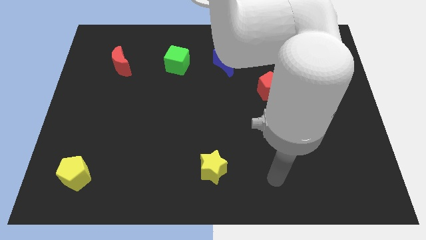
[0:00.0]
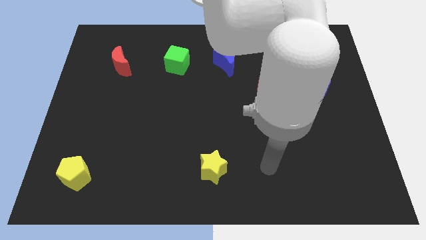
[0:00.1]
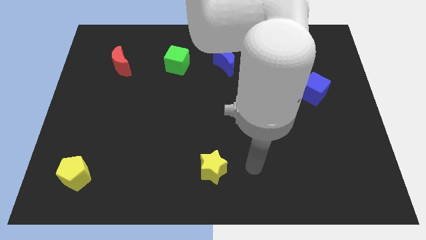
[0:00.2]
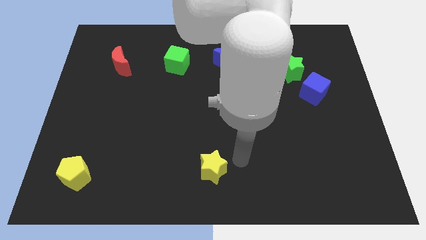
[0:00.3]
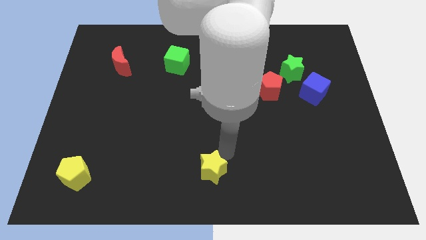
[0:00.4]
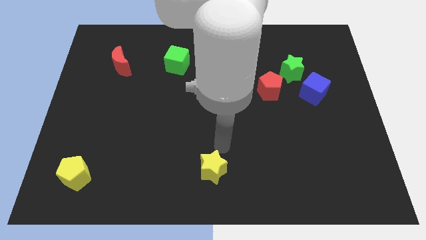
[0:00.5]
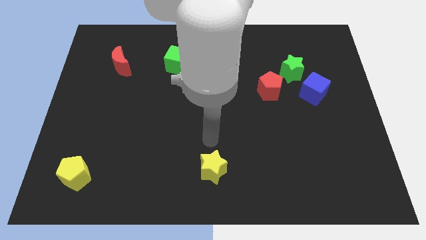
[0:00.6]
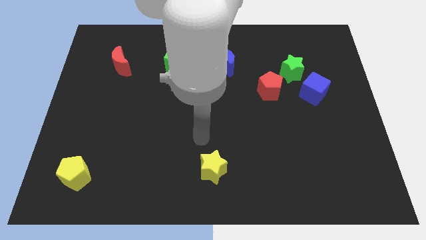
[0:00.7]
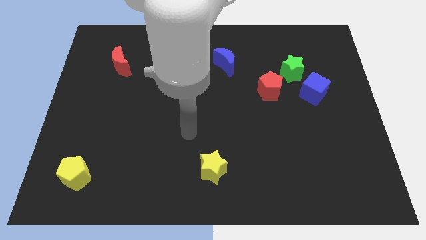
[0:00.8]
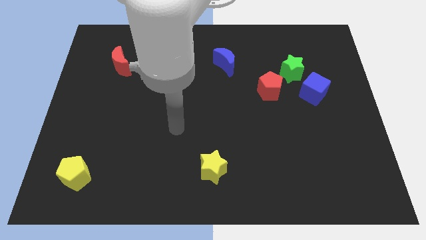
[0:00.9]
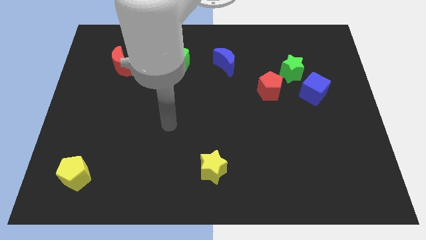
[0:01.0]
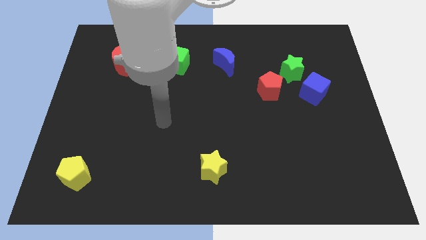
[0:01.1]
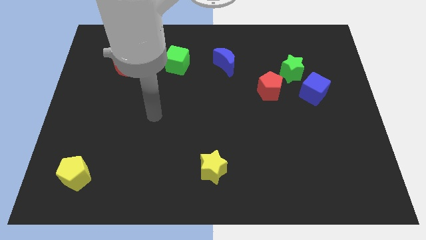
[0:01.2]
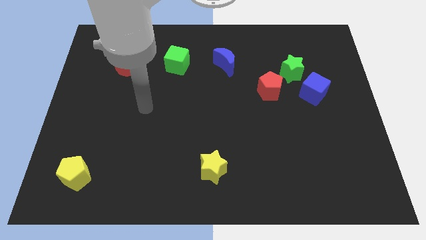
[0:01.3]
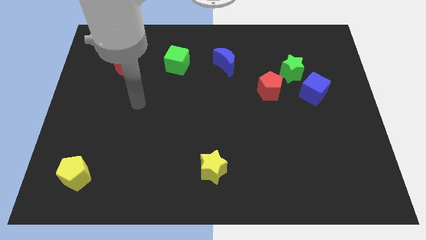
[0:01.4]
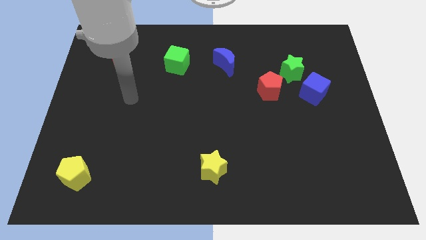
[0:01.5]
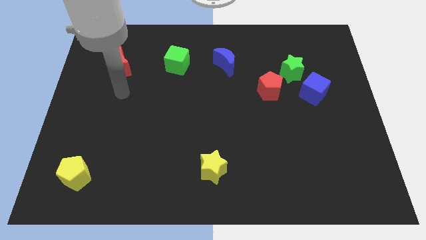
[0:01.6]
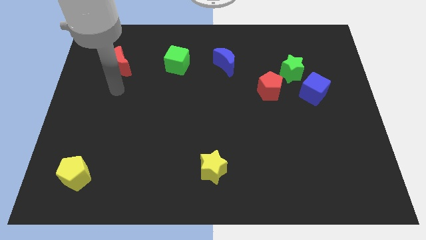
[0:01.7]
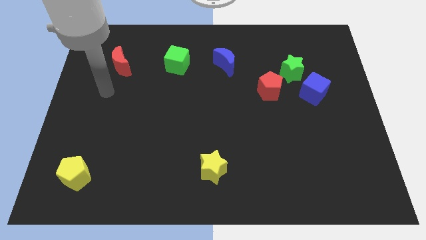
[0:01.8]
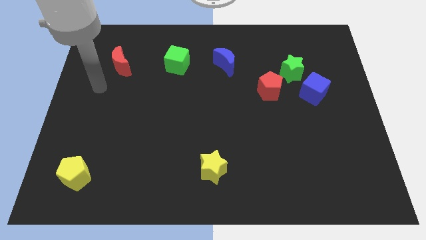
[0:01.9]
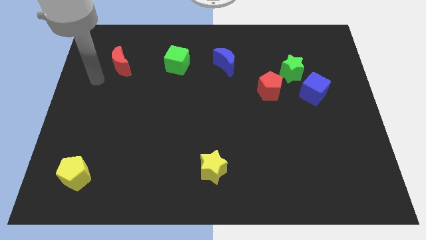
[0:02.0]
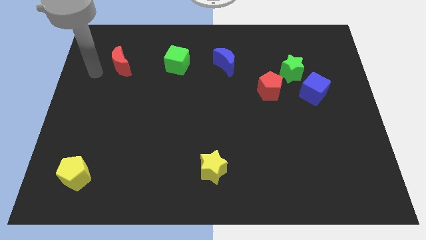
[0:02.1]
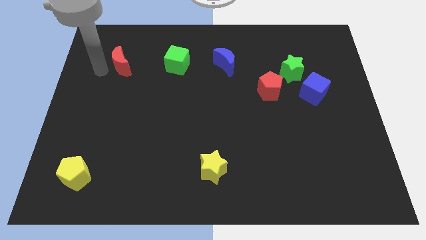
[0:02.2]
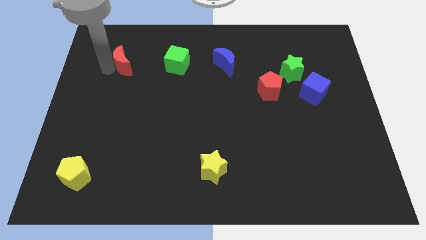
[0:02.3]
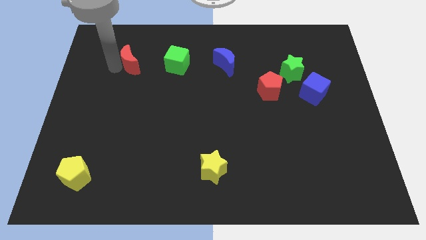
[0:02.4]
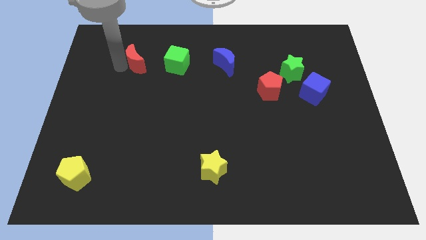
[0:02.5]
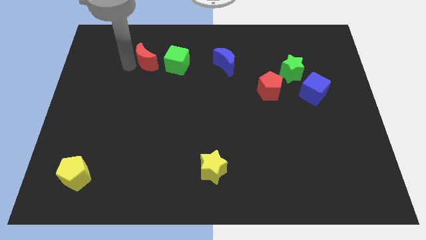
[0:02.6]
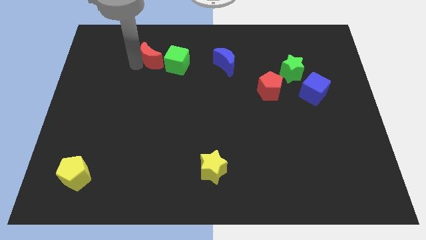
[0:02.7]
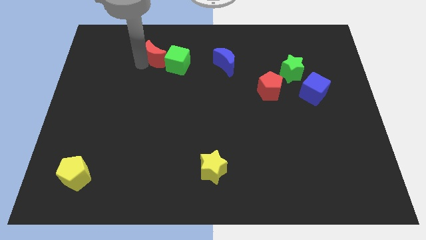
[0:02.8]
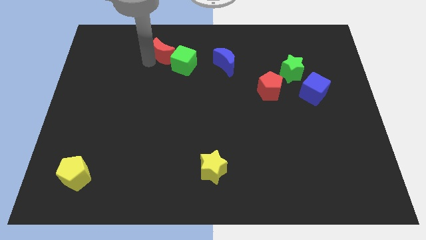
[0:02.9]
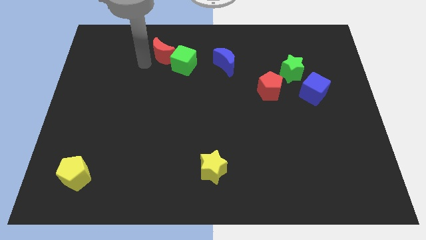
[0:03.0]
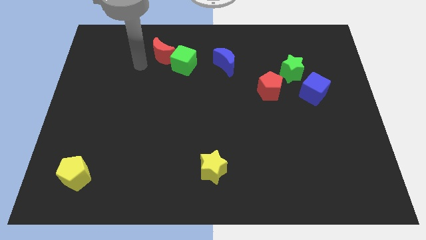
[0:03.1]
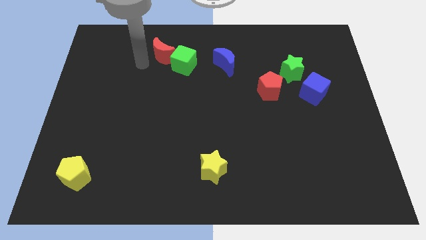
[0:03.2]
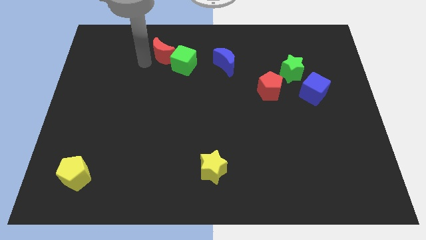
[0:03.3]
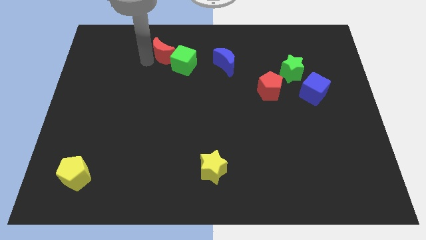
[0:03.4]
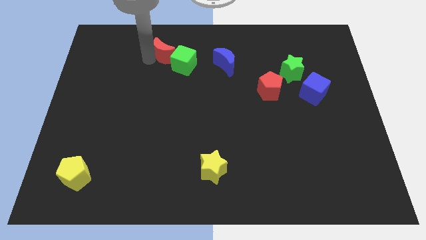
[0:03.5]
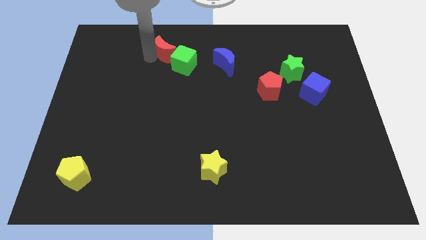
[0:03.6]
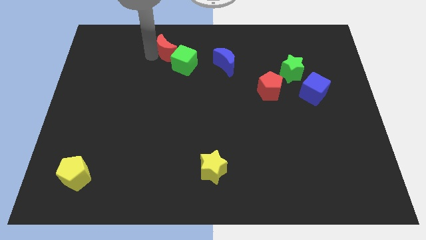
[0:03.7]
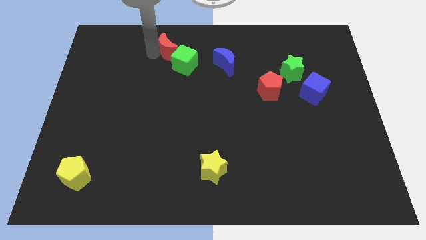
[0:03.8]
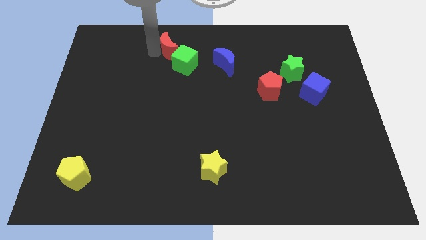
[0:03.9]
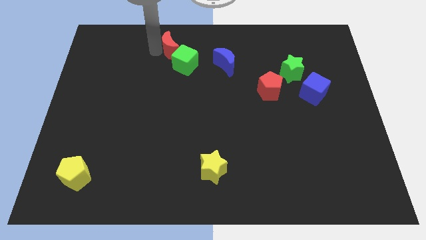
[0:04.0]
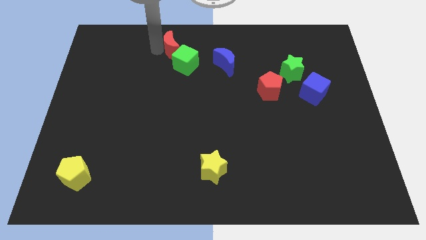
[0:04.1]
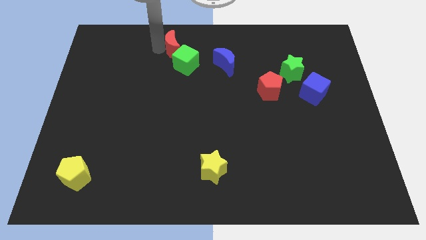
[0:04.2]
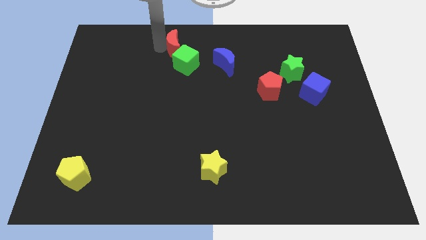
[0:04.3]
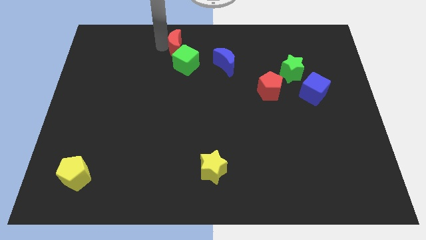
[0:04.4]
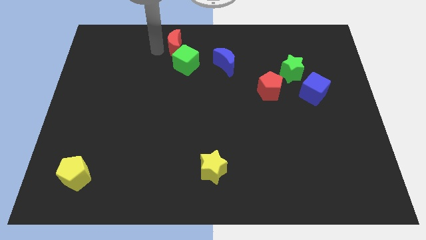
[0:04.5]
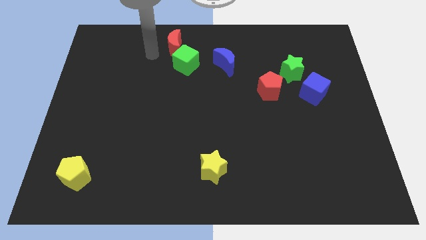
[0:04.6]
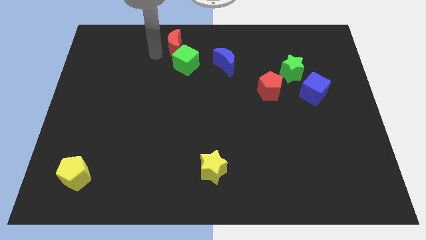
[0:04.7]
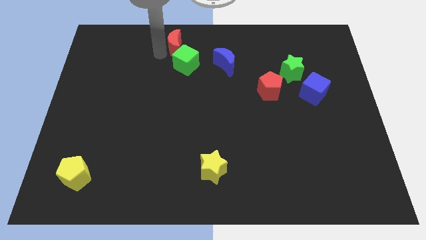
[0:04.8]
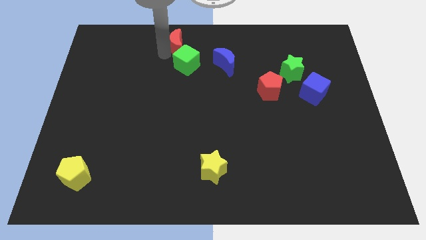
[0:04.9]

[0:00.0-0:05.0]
push the red moon to the top side

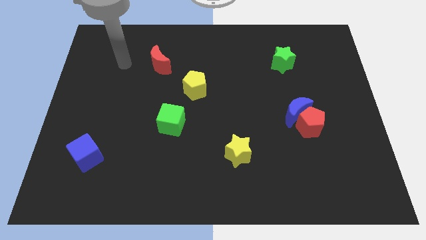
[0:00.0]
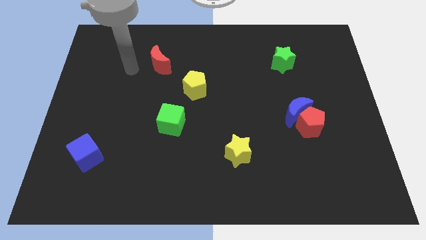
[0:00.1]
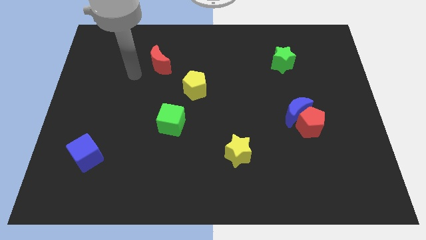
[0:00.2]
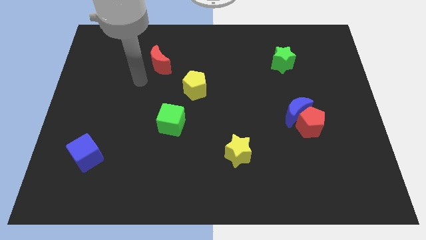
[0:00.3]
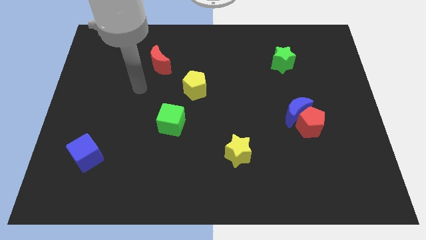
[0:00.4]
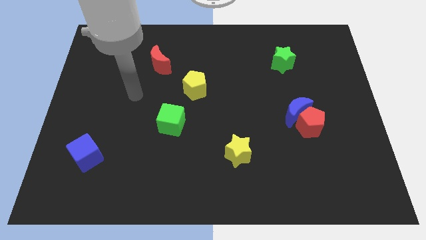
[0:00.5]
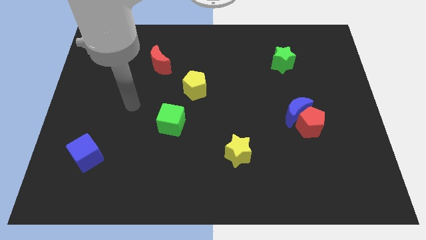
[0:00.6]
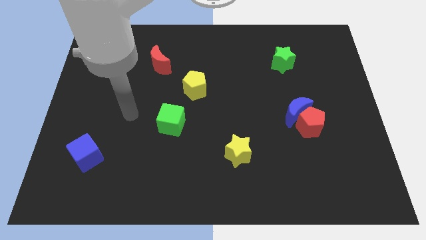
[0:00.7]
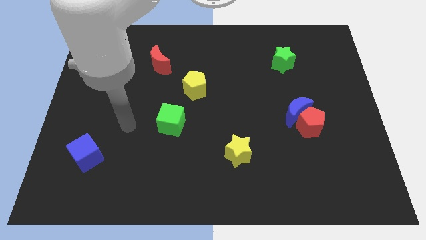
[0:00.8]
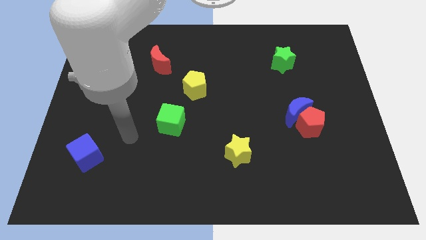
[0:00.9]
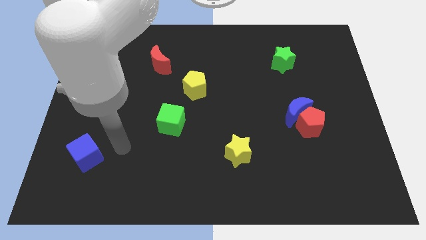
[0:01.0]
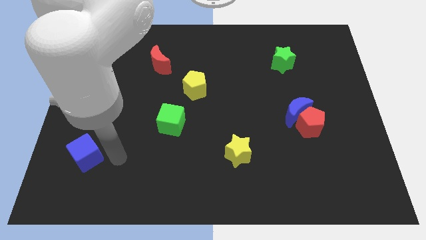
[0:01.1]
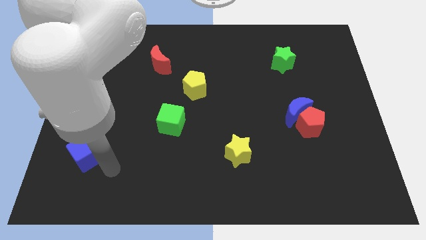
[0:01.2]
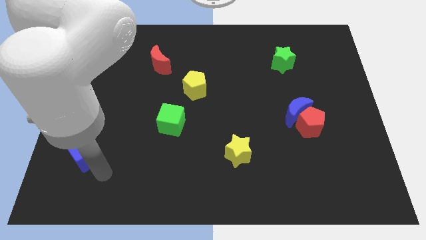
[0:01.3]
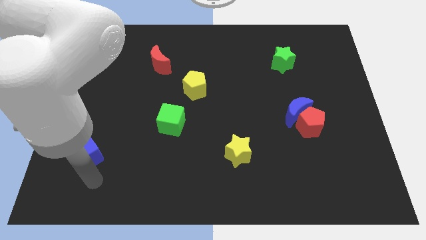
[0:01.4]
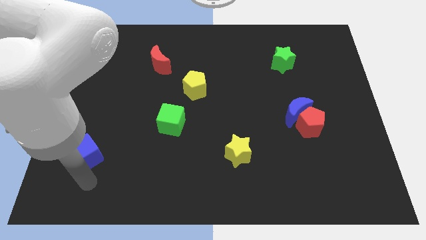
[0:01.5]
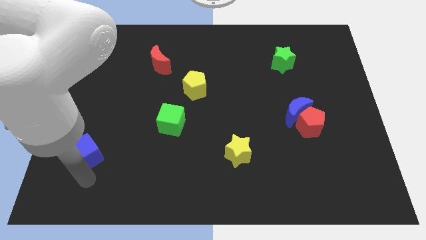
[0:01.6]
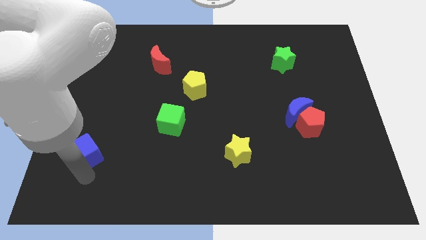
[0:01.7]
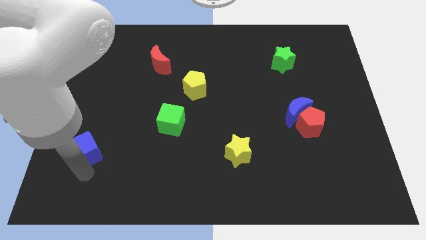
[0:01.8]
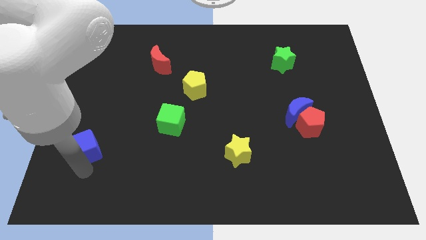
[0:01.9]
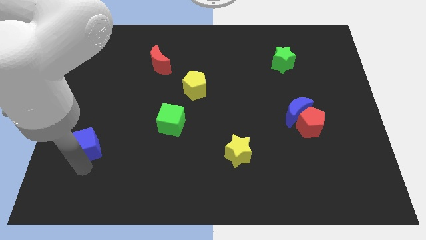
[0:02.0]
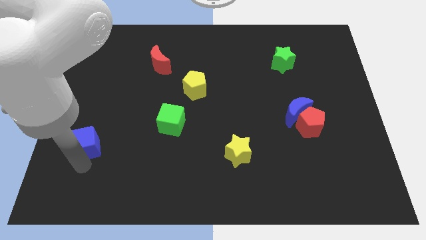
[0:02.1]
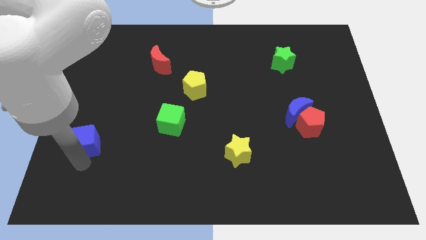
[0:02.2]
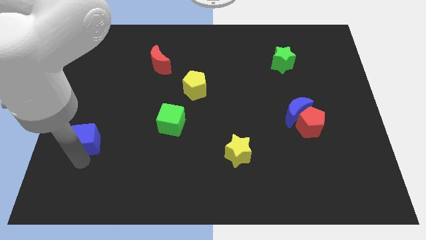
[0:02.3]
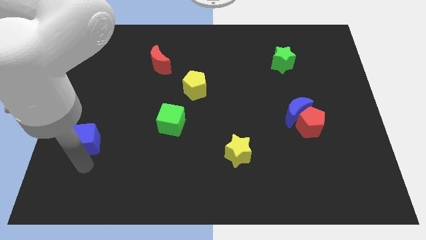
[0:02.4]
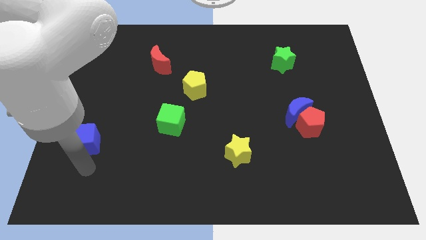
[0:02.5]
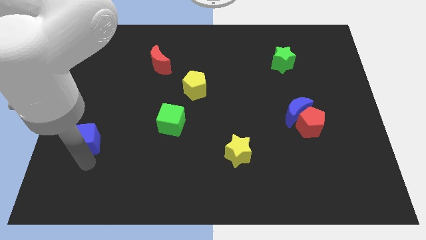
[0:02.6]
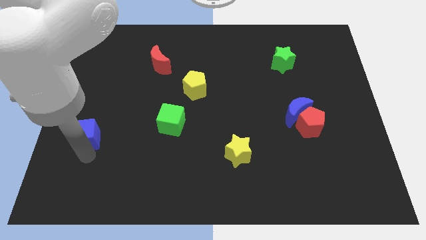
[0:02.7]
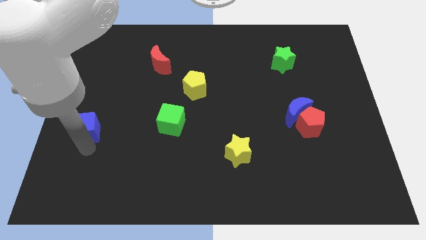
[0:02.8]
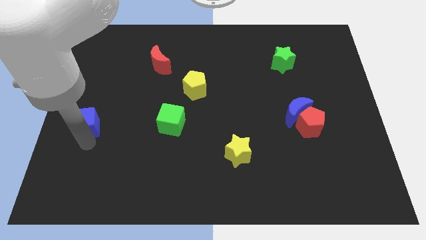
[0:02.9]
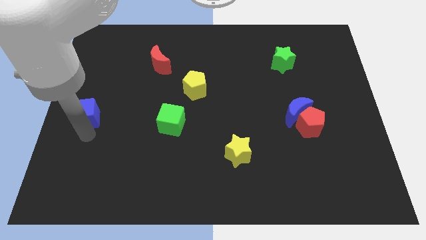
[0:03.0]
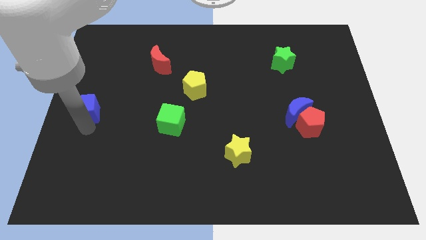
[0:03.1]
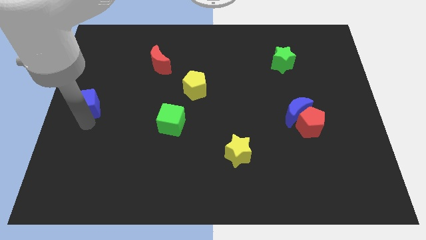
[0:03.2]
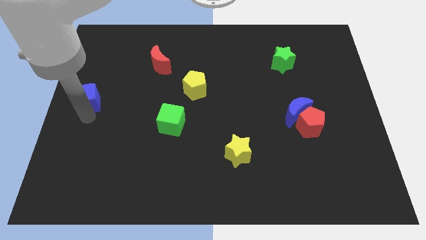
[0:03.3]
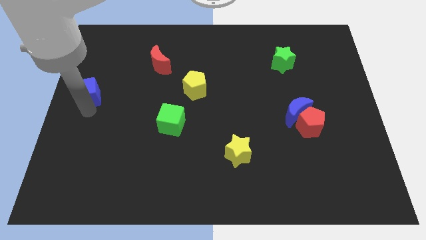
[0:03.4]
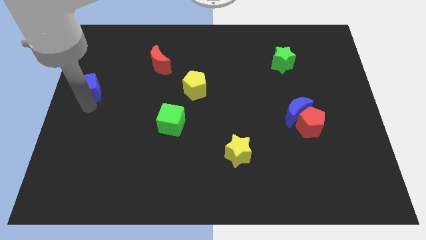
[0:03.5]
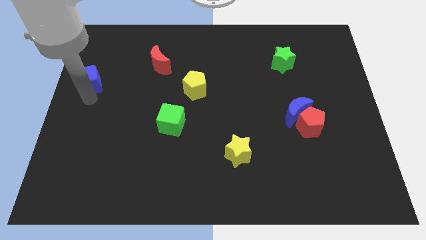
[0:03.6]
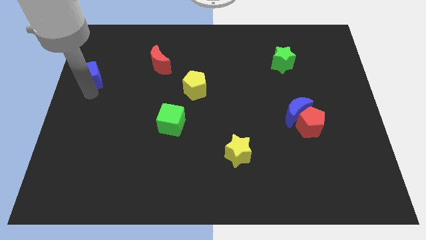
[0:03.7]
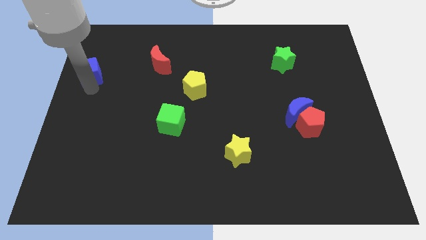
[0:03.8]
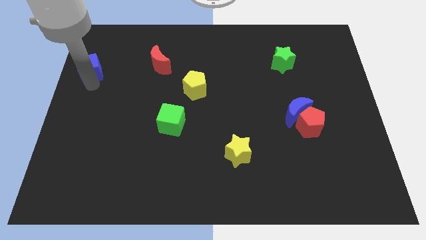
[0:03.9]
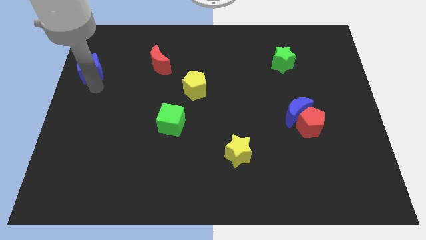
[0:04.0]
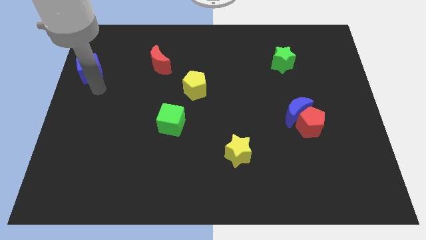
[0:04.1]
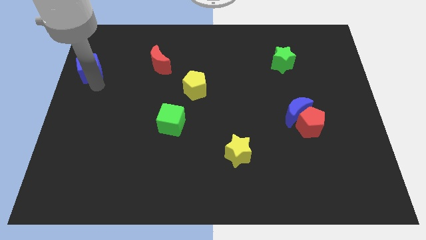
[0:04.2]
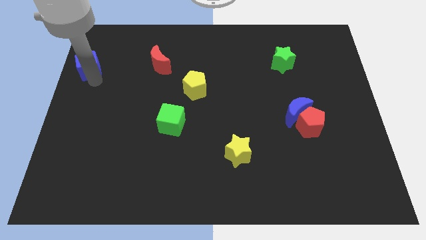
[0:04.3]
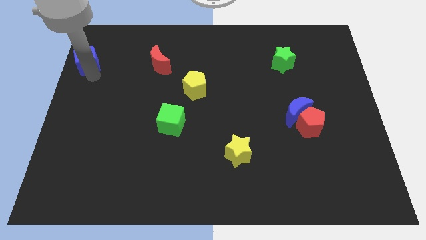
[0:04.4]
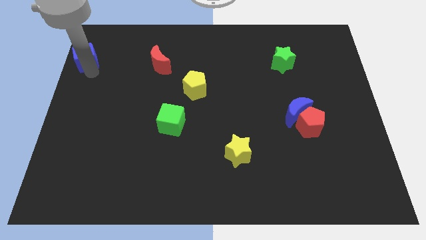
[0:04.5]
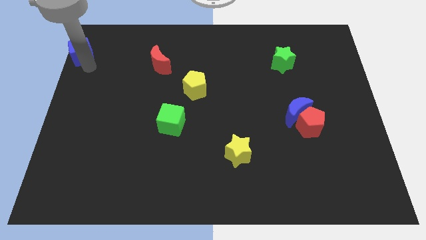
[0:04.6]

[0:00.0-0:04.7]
slide the blue cube to the upper left corner
